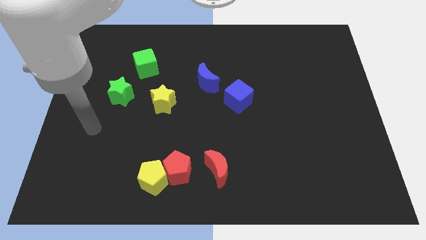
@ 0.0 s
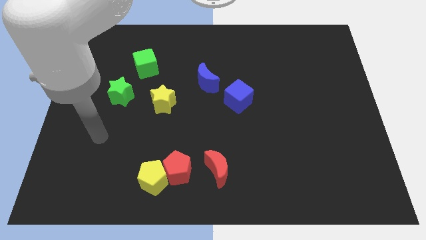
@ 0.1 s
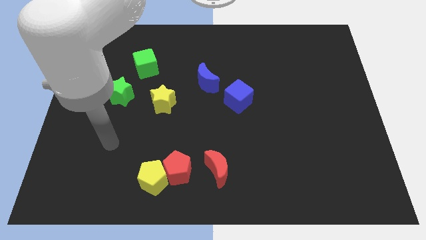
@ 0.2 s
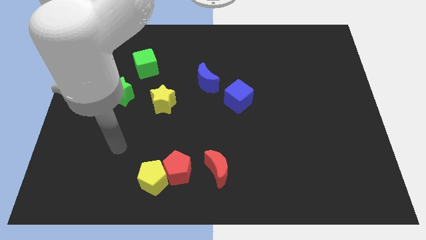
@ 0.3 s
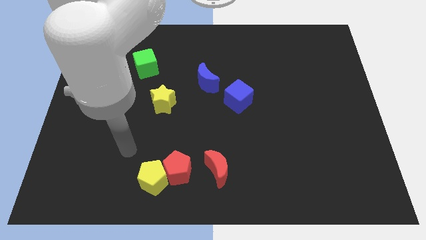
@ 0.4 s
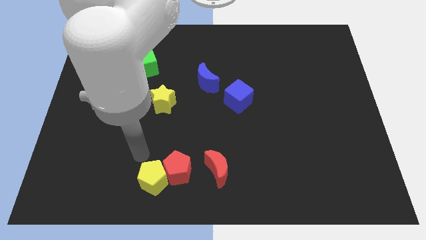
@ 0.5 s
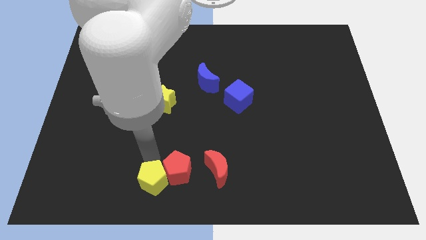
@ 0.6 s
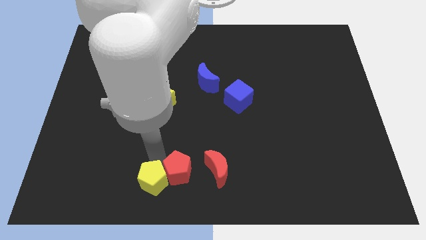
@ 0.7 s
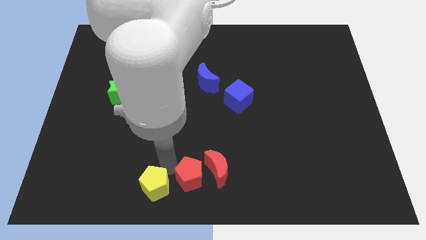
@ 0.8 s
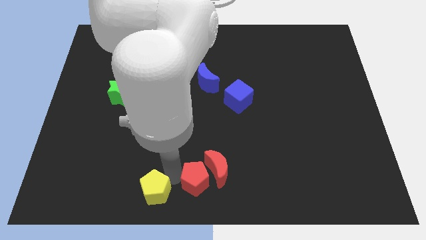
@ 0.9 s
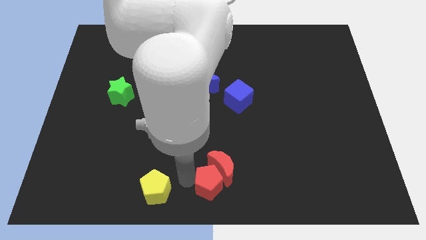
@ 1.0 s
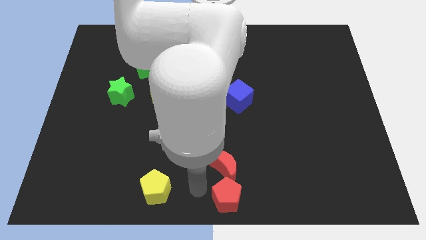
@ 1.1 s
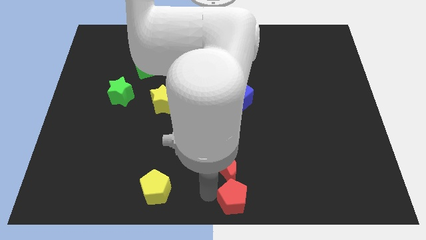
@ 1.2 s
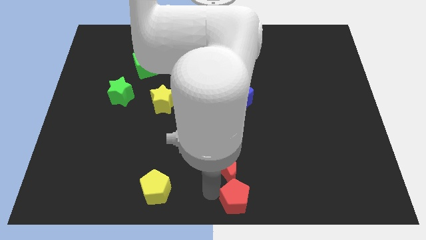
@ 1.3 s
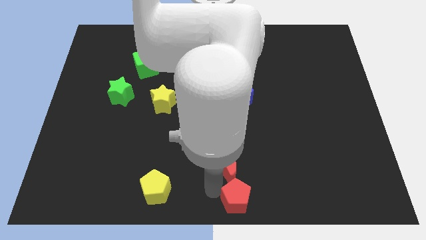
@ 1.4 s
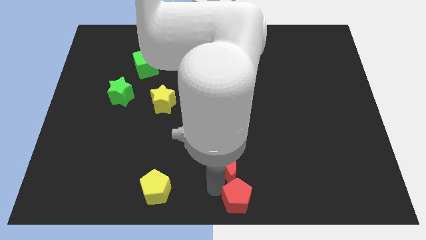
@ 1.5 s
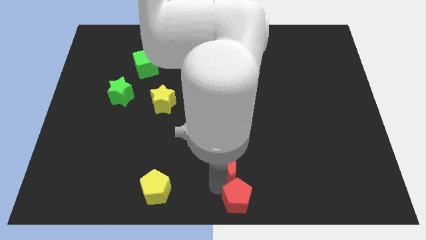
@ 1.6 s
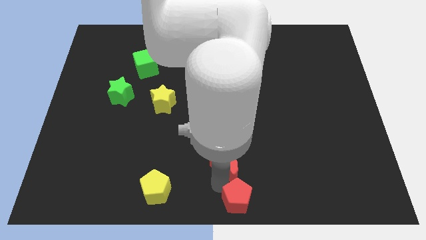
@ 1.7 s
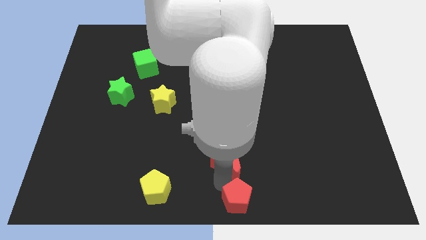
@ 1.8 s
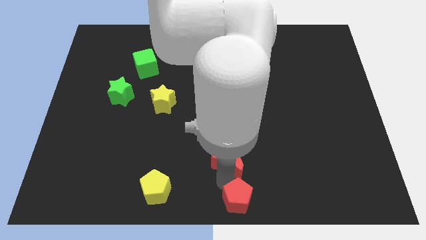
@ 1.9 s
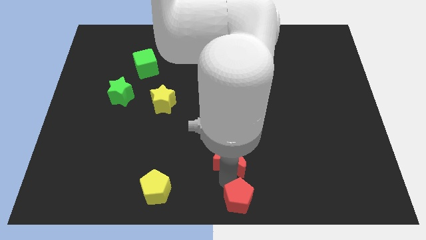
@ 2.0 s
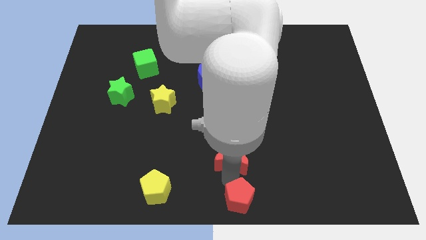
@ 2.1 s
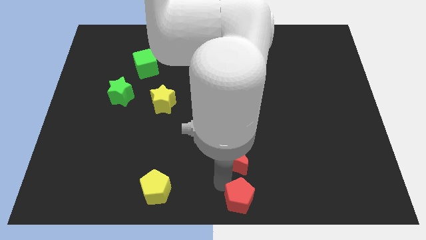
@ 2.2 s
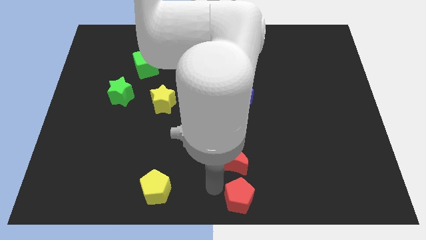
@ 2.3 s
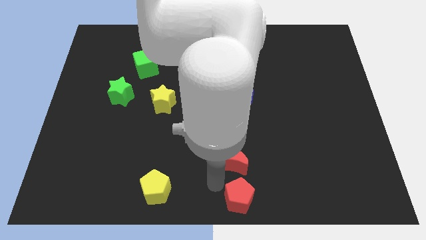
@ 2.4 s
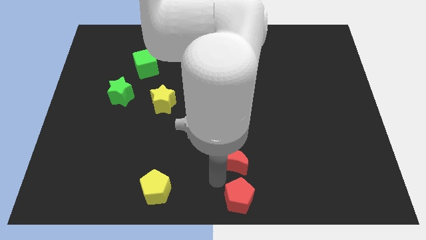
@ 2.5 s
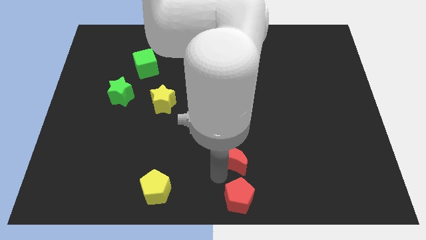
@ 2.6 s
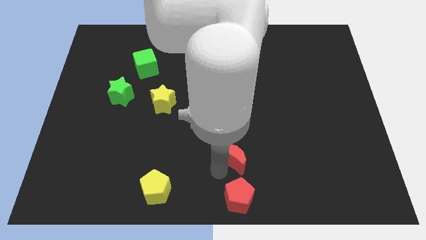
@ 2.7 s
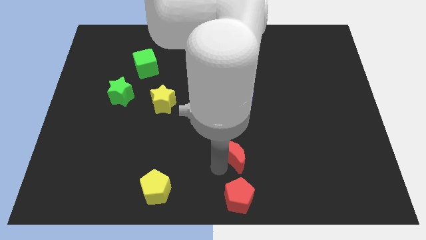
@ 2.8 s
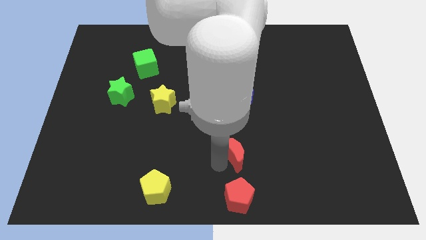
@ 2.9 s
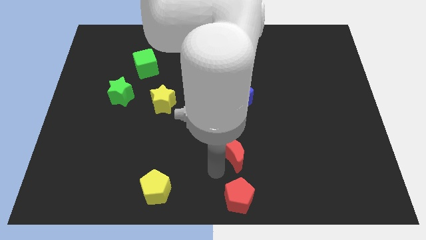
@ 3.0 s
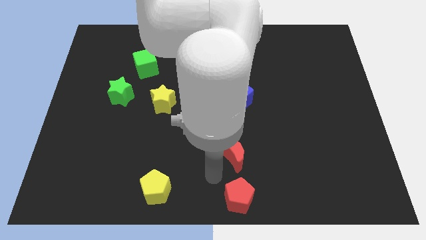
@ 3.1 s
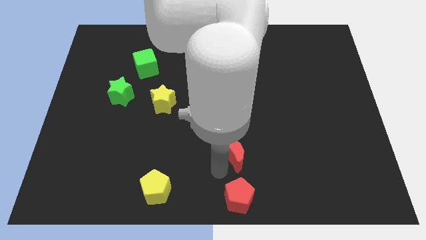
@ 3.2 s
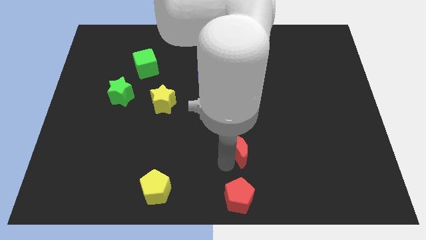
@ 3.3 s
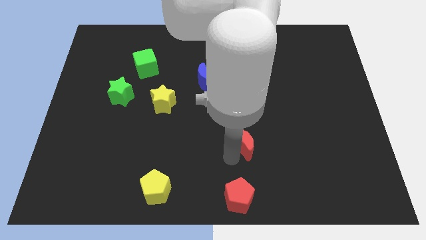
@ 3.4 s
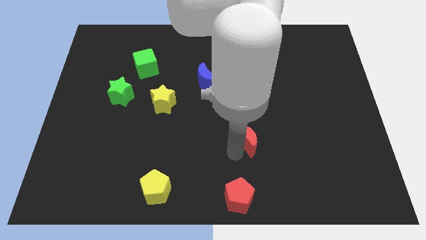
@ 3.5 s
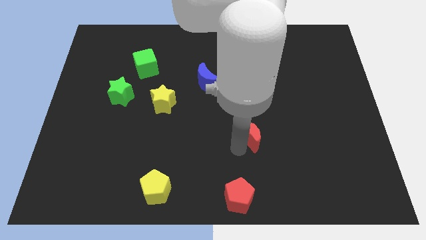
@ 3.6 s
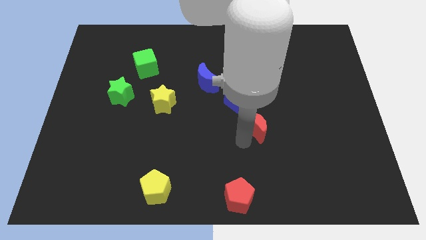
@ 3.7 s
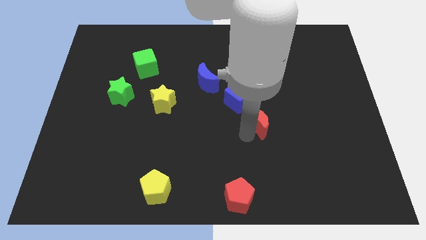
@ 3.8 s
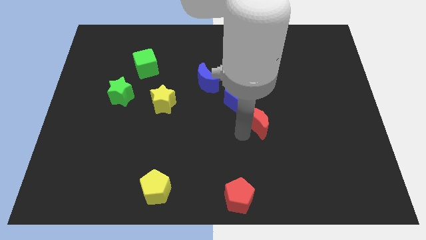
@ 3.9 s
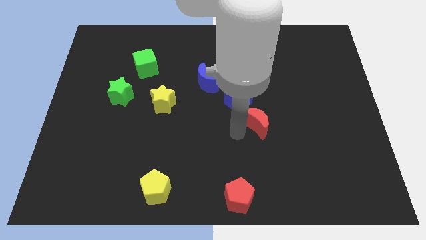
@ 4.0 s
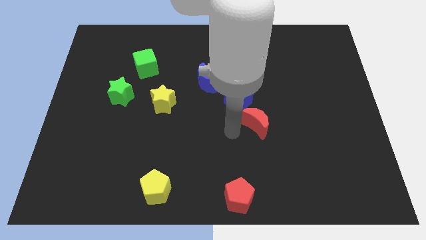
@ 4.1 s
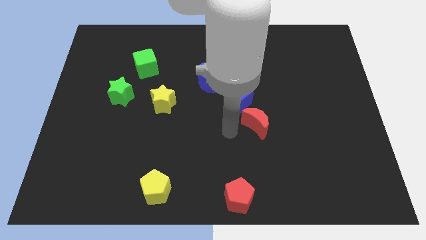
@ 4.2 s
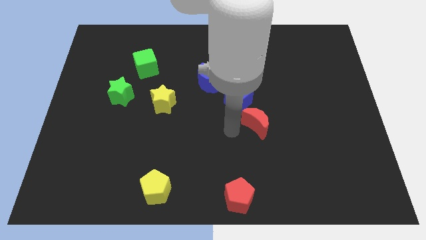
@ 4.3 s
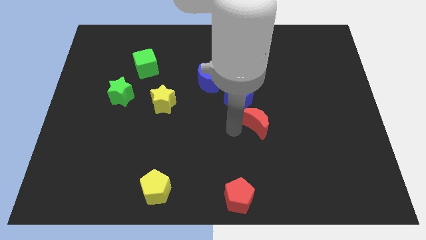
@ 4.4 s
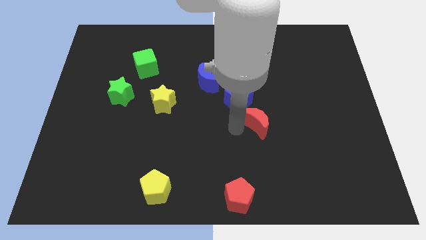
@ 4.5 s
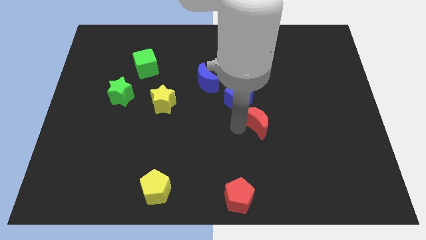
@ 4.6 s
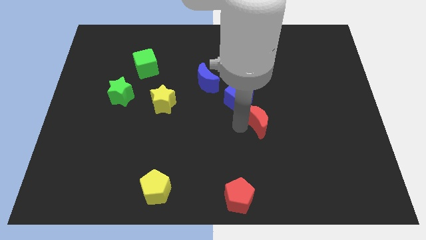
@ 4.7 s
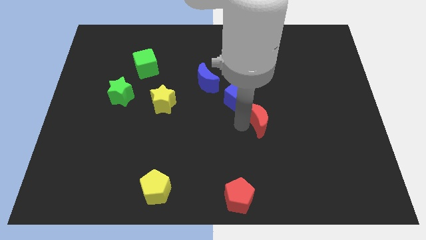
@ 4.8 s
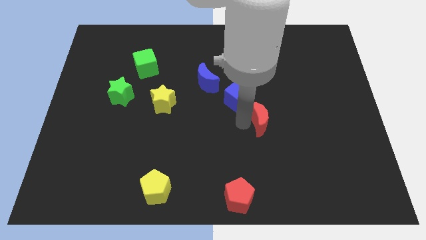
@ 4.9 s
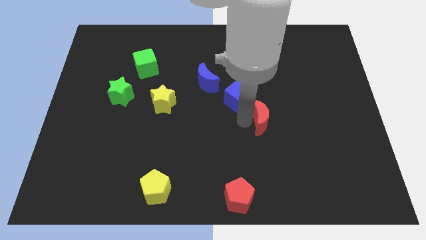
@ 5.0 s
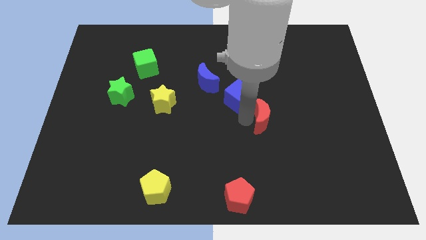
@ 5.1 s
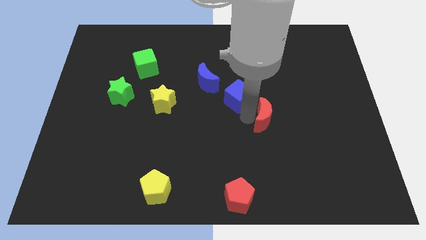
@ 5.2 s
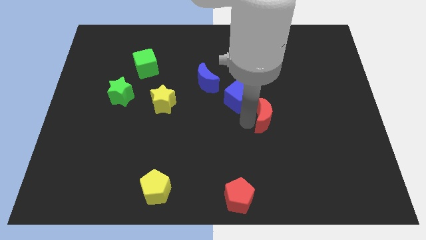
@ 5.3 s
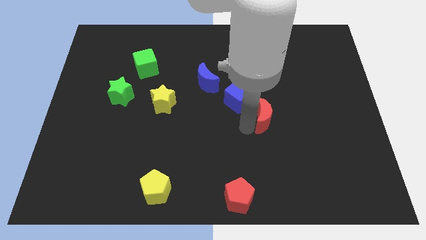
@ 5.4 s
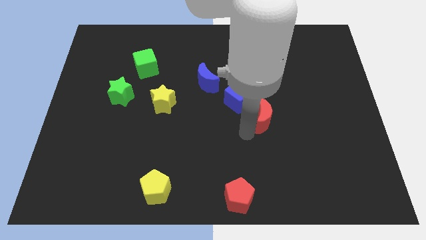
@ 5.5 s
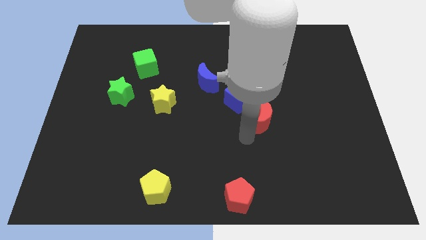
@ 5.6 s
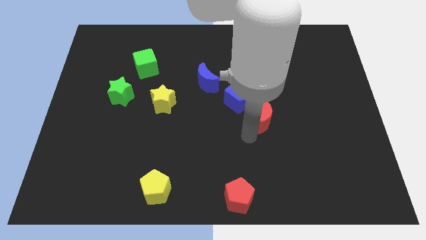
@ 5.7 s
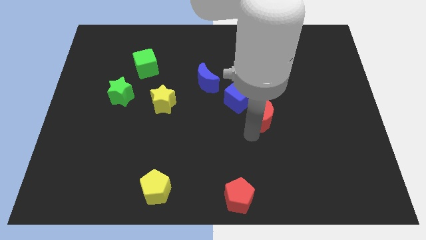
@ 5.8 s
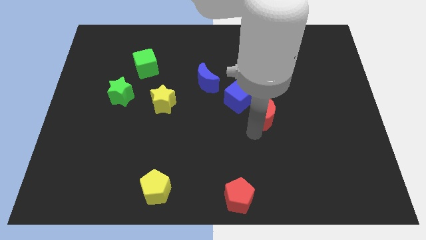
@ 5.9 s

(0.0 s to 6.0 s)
push the red moon to the right of the blue cube

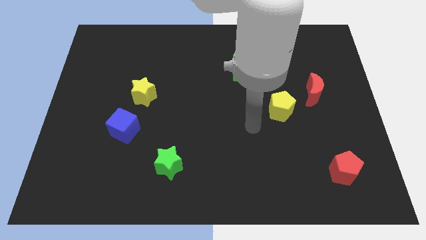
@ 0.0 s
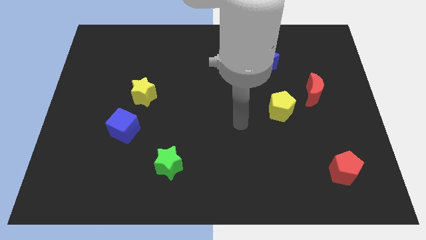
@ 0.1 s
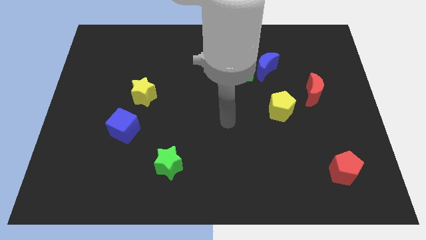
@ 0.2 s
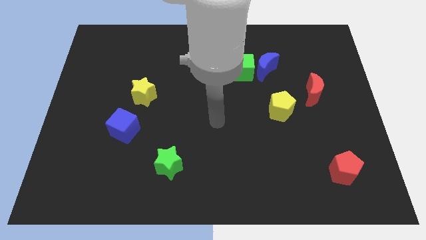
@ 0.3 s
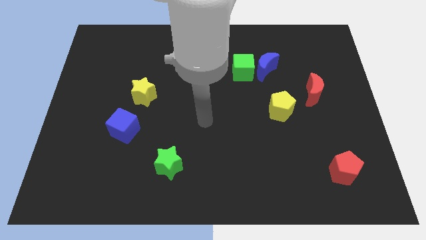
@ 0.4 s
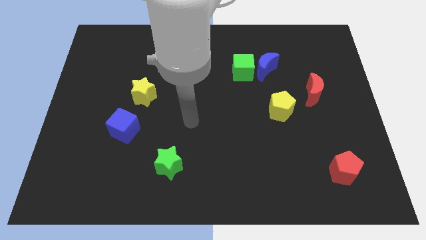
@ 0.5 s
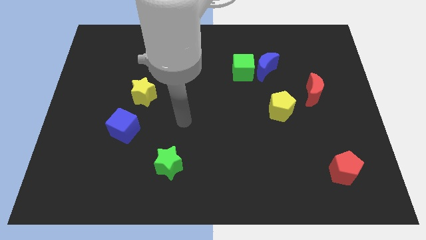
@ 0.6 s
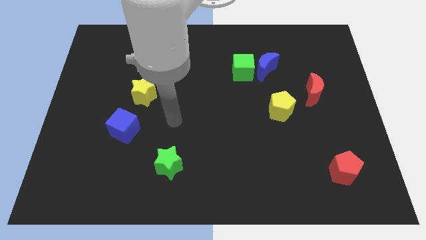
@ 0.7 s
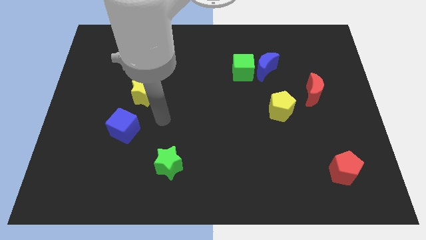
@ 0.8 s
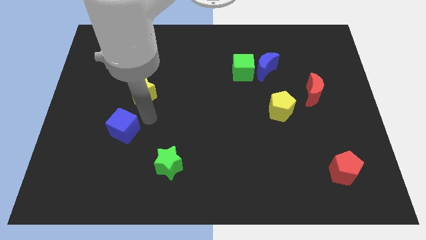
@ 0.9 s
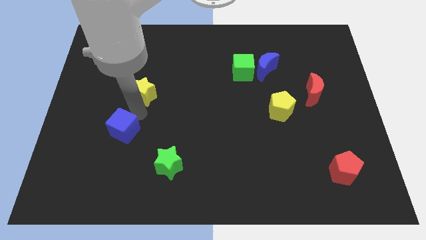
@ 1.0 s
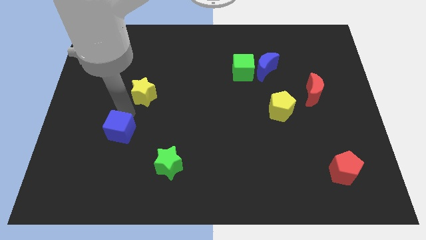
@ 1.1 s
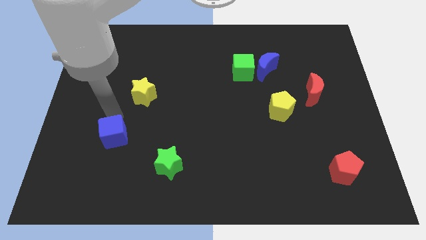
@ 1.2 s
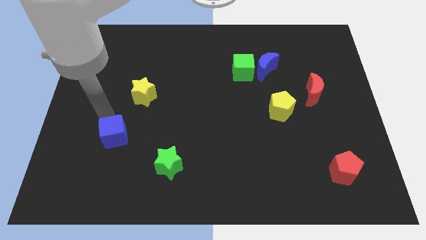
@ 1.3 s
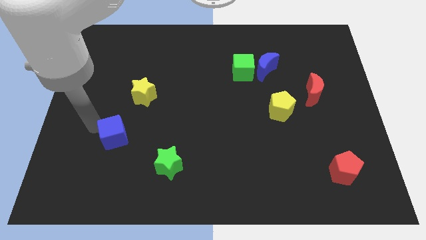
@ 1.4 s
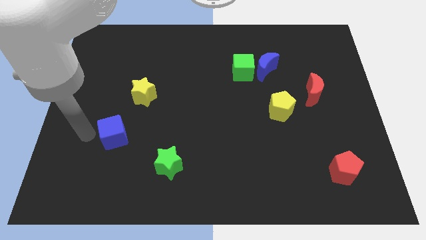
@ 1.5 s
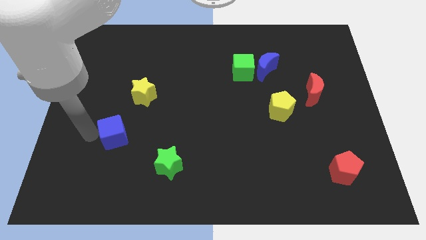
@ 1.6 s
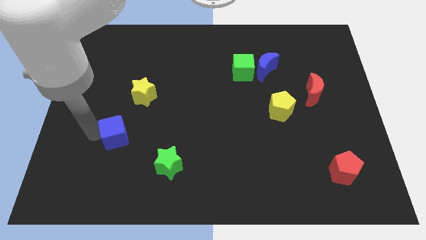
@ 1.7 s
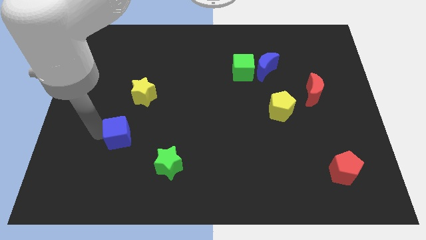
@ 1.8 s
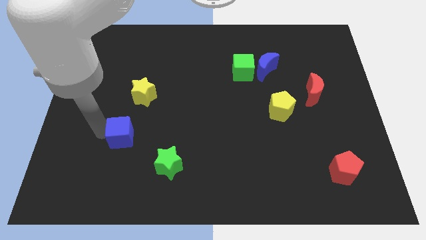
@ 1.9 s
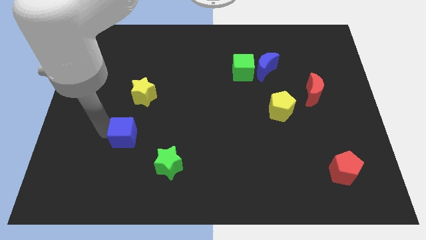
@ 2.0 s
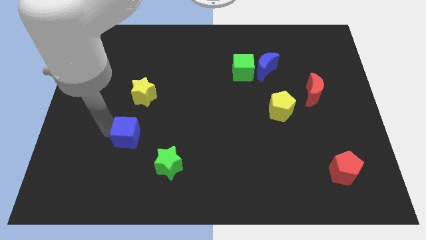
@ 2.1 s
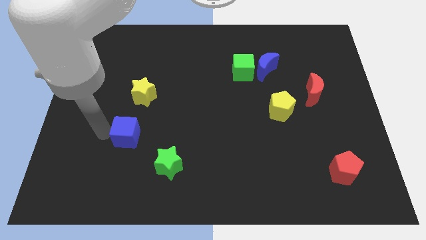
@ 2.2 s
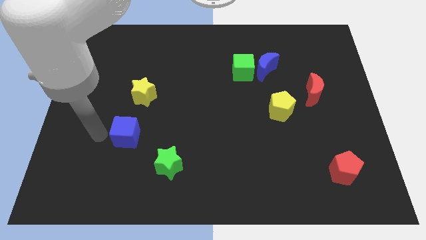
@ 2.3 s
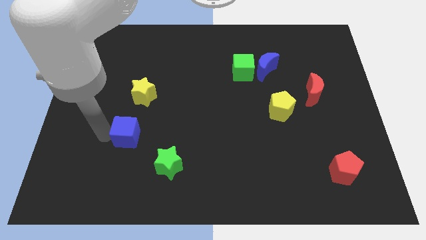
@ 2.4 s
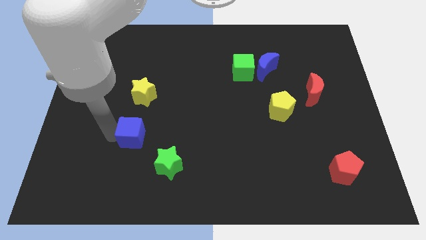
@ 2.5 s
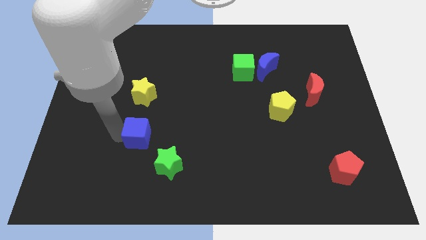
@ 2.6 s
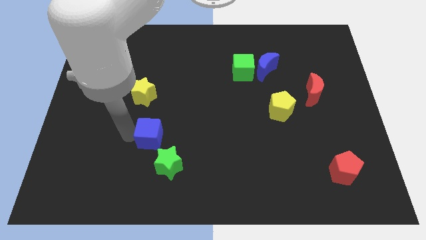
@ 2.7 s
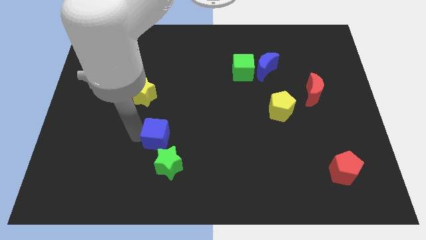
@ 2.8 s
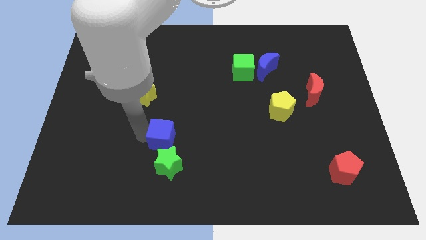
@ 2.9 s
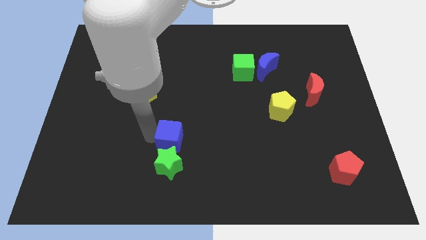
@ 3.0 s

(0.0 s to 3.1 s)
move the blue cube to the top right side of the green star
